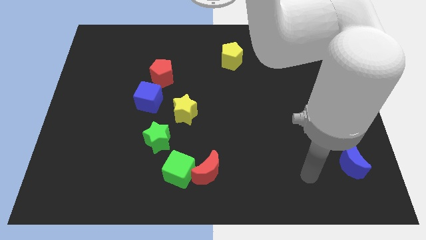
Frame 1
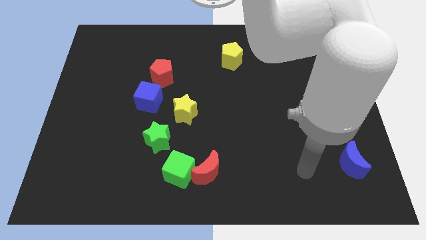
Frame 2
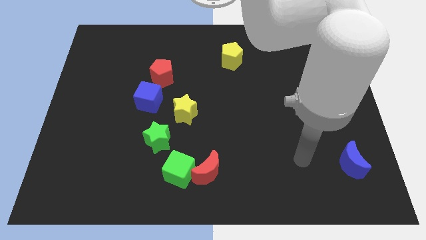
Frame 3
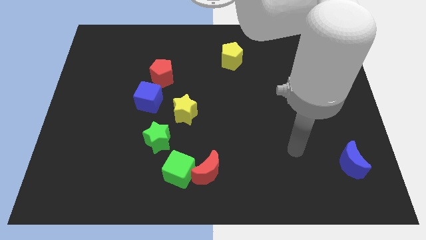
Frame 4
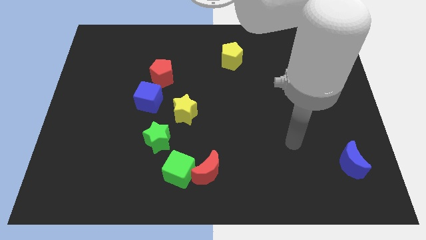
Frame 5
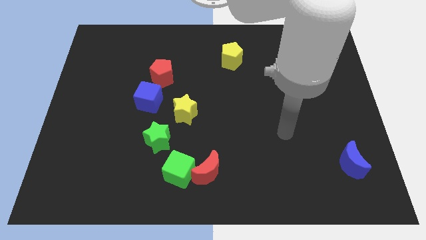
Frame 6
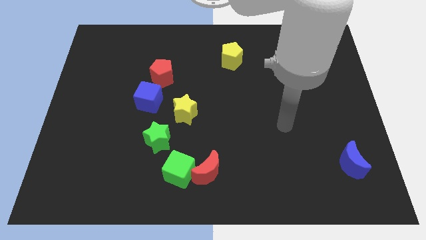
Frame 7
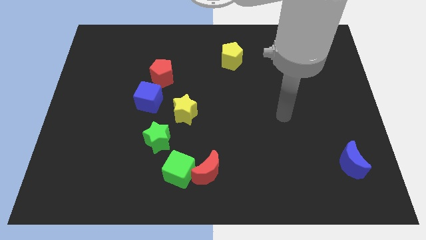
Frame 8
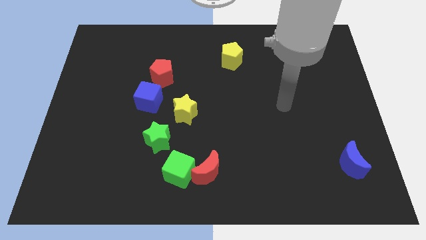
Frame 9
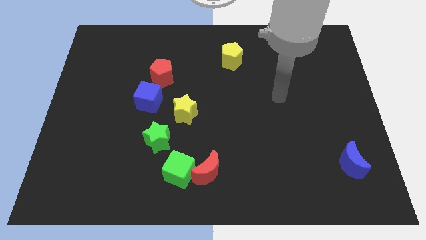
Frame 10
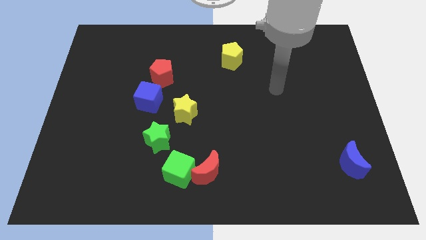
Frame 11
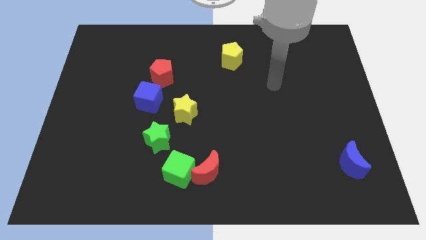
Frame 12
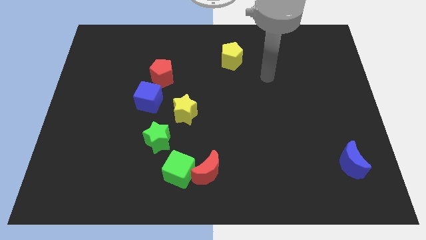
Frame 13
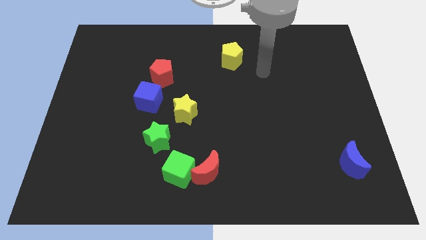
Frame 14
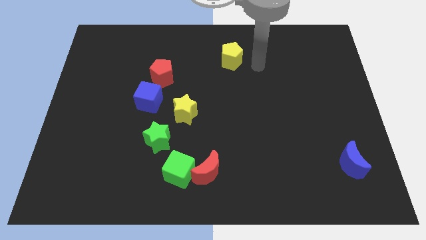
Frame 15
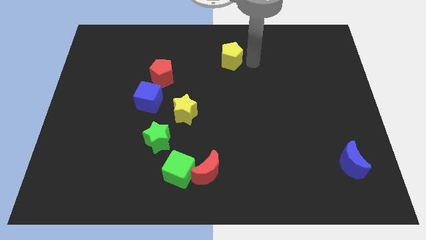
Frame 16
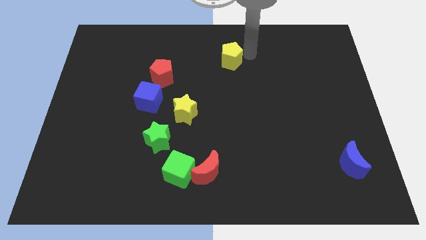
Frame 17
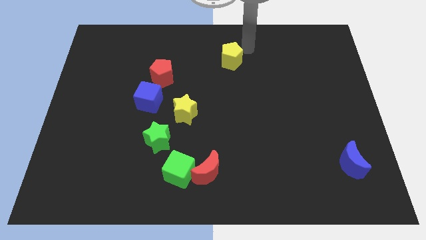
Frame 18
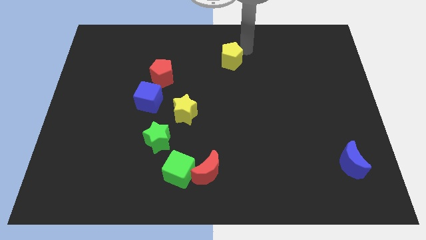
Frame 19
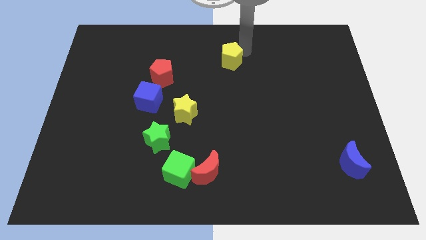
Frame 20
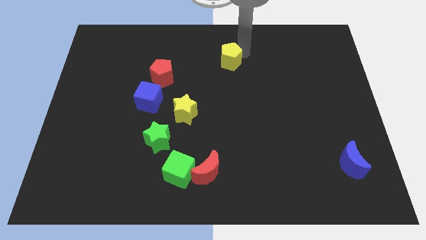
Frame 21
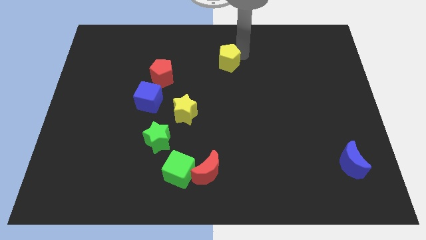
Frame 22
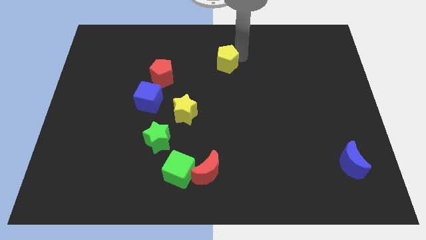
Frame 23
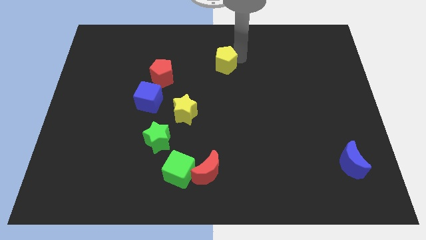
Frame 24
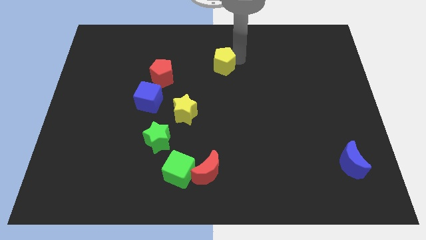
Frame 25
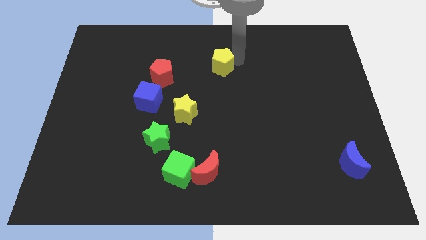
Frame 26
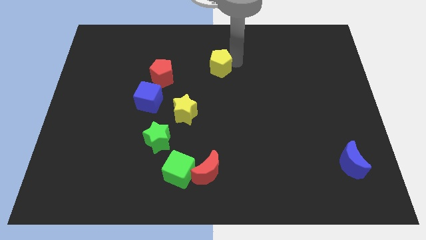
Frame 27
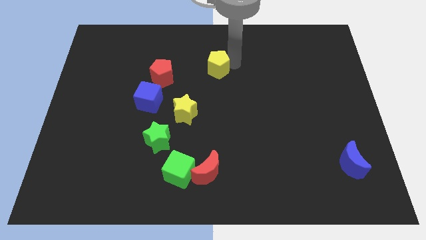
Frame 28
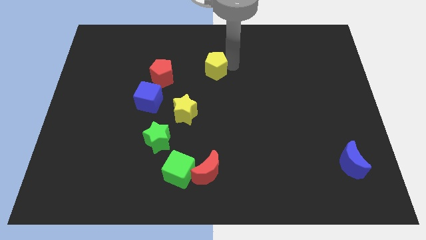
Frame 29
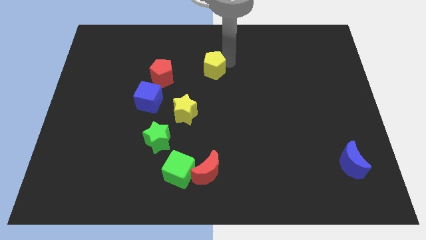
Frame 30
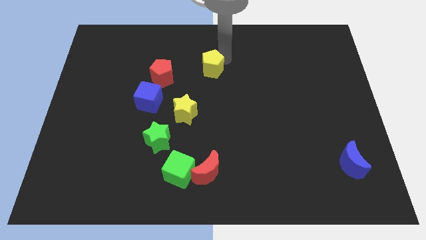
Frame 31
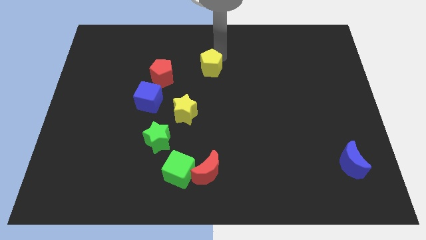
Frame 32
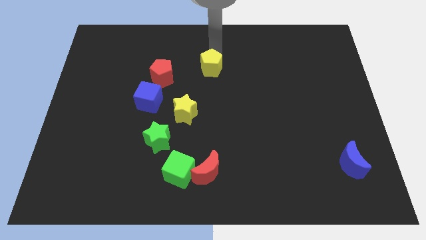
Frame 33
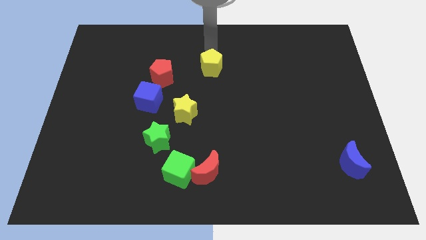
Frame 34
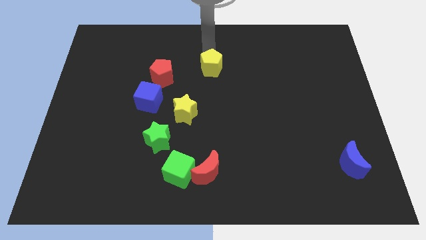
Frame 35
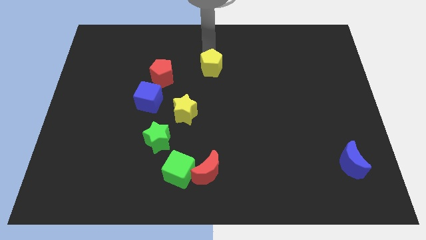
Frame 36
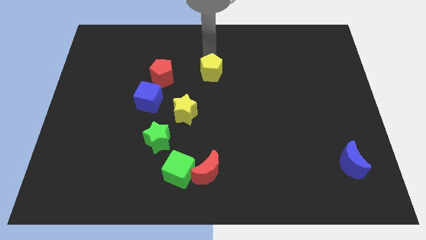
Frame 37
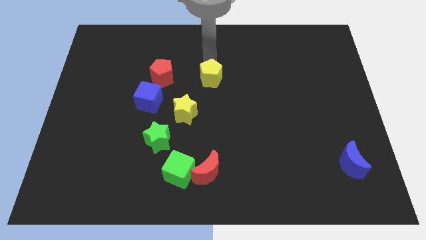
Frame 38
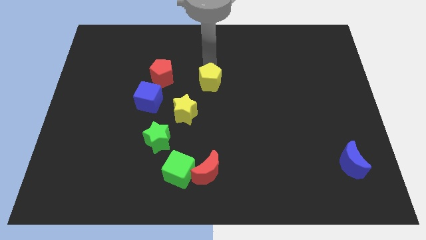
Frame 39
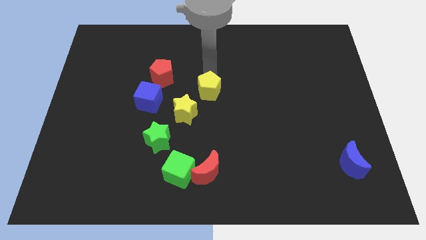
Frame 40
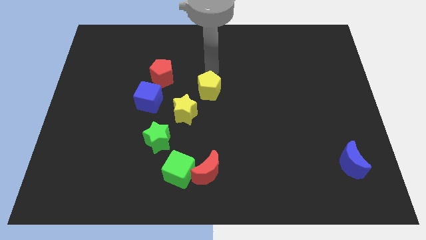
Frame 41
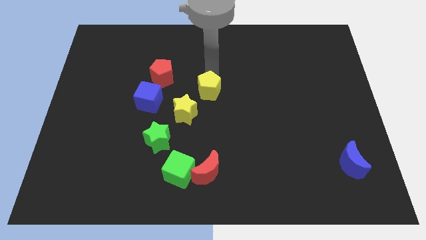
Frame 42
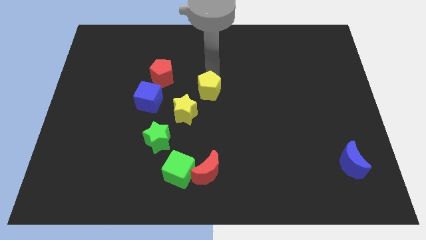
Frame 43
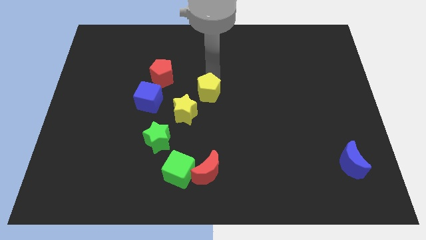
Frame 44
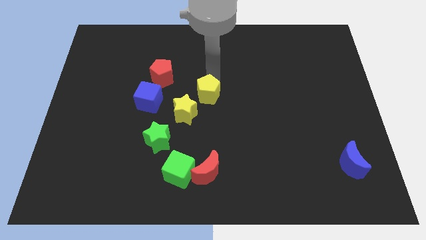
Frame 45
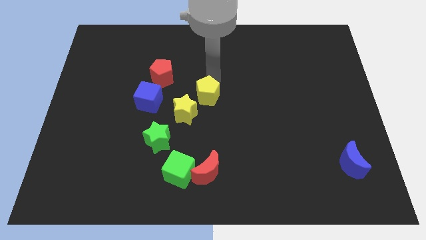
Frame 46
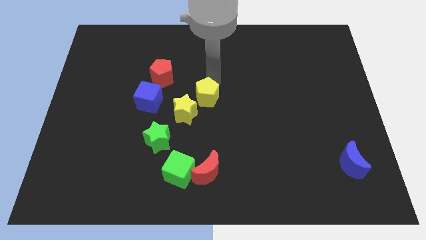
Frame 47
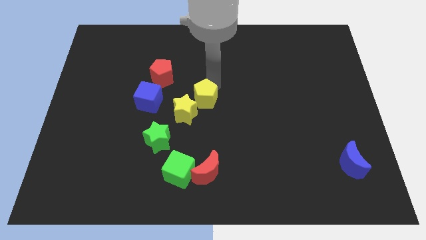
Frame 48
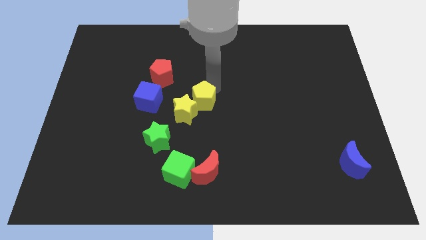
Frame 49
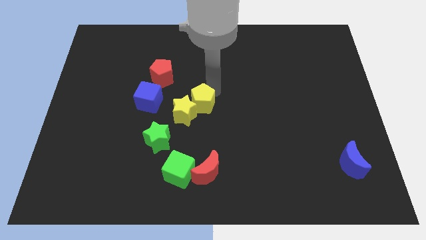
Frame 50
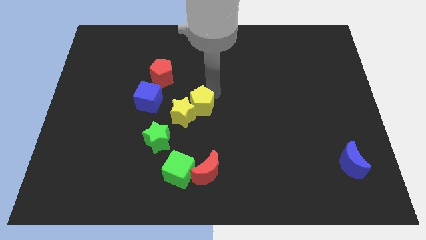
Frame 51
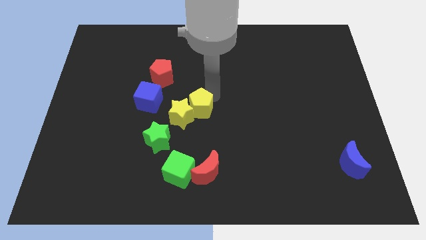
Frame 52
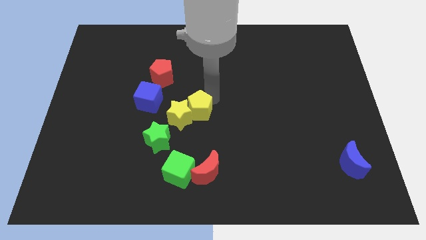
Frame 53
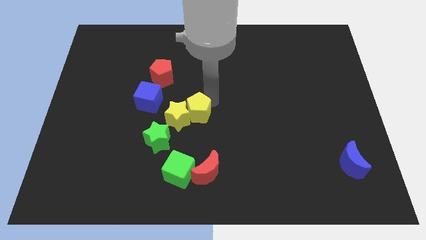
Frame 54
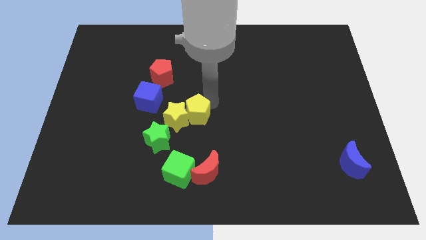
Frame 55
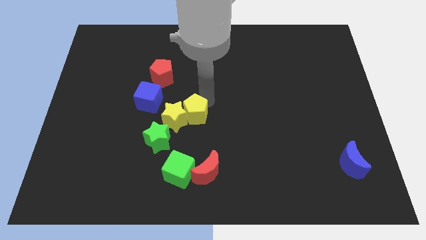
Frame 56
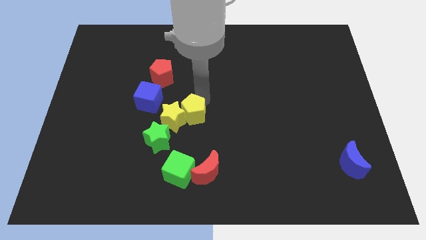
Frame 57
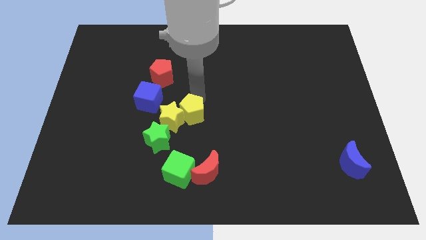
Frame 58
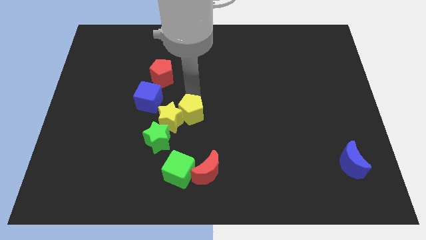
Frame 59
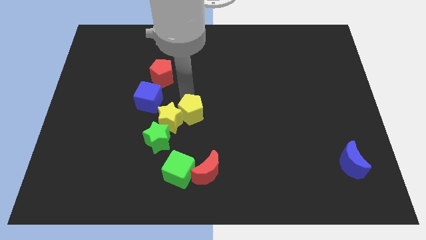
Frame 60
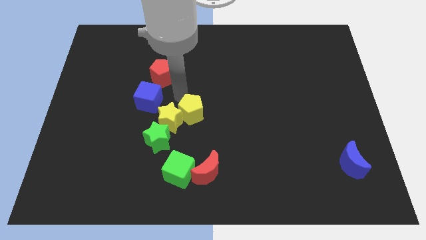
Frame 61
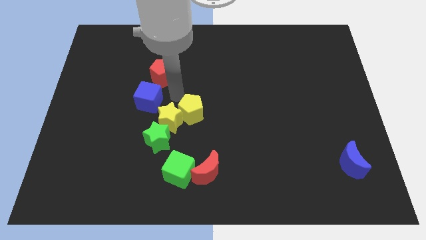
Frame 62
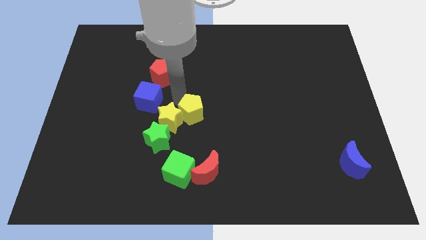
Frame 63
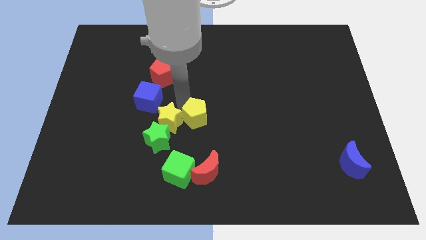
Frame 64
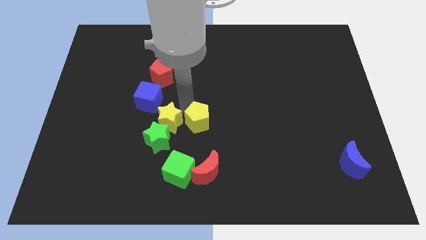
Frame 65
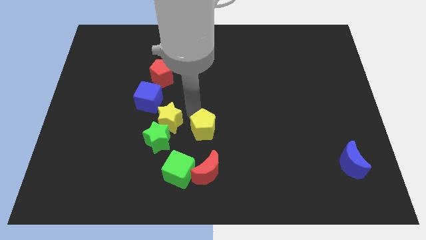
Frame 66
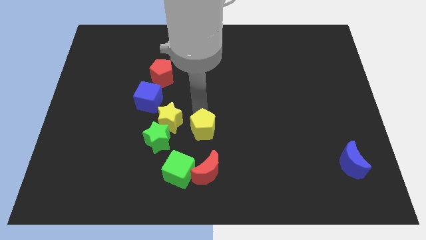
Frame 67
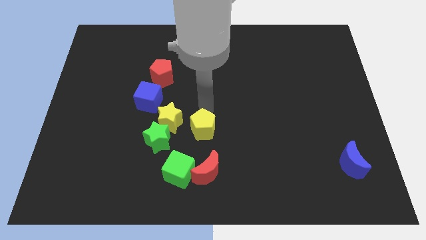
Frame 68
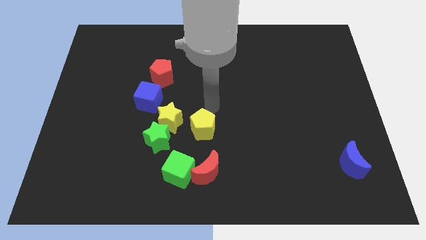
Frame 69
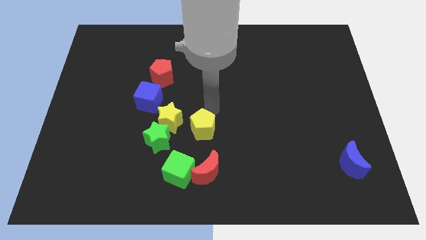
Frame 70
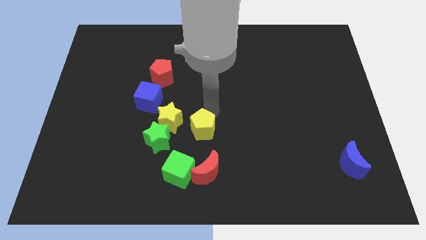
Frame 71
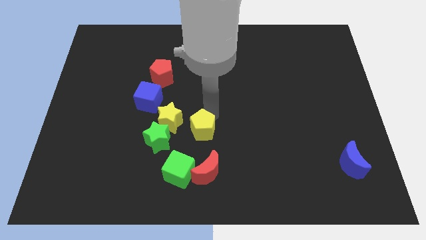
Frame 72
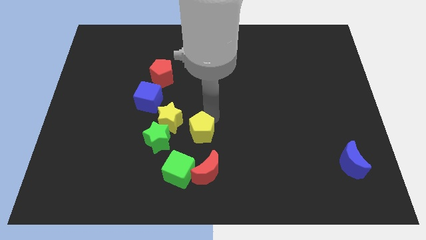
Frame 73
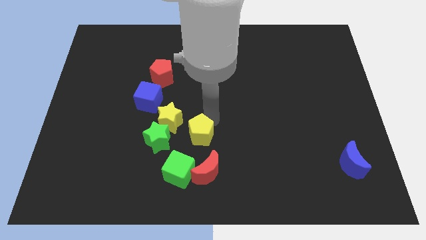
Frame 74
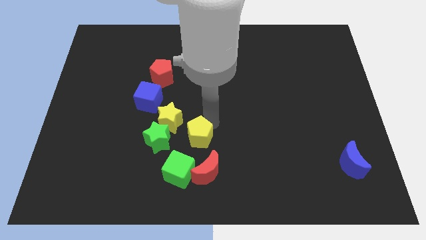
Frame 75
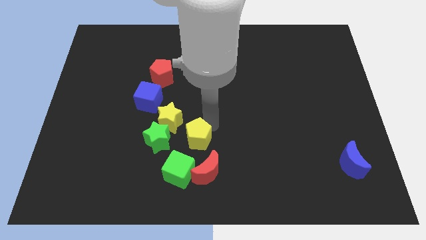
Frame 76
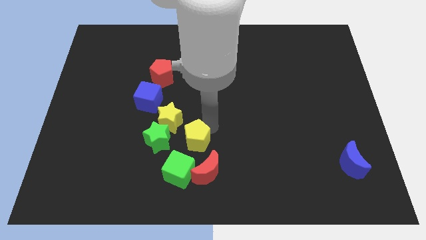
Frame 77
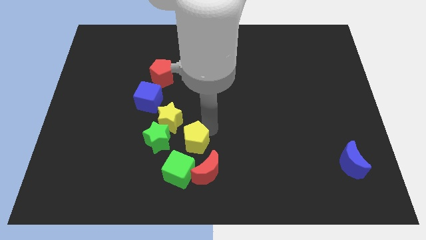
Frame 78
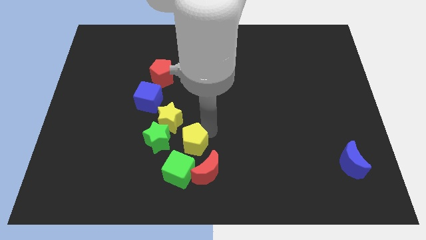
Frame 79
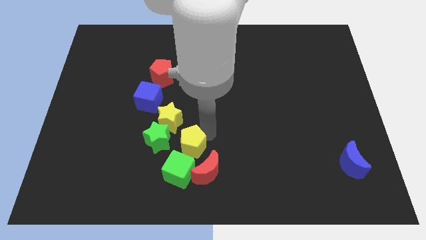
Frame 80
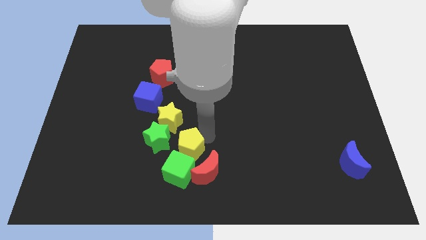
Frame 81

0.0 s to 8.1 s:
slide the yellow pentagon next to the green cube
